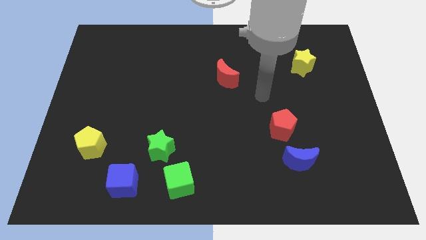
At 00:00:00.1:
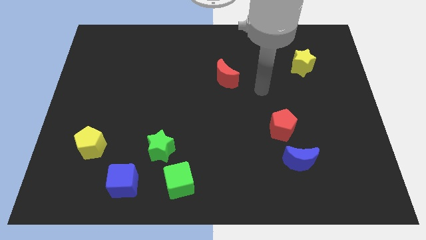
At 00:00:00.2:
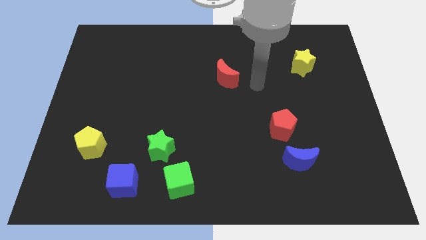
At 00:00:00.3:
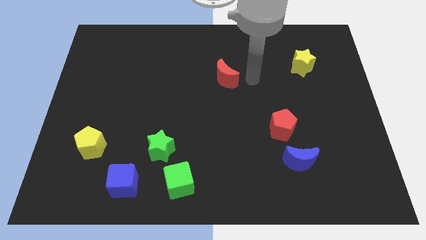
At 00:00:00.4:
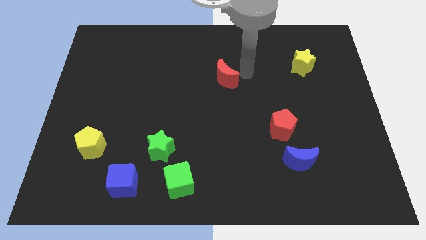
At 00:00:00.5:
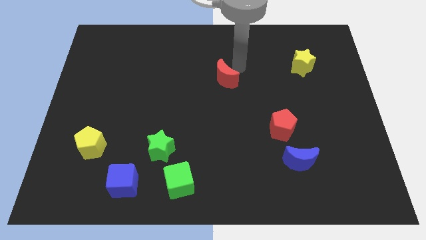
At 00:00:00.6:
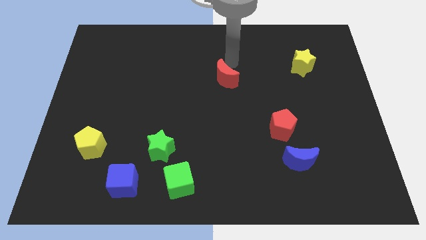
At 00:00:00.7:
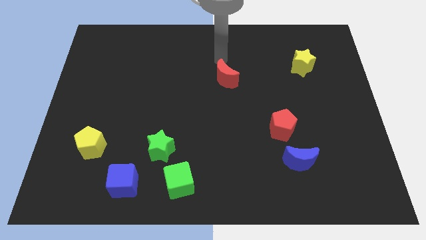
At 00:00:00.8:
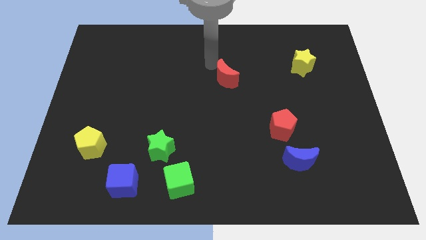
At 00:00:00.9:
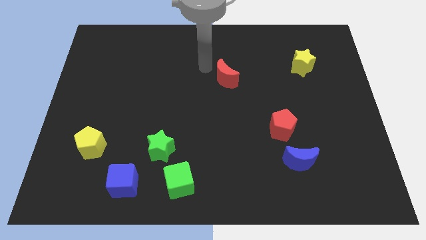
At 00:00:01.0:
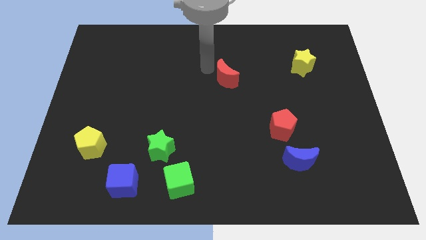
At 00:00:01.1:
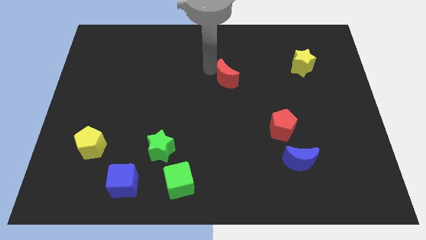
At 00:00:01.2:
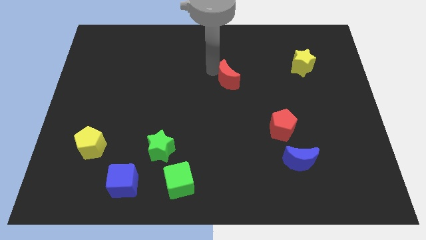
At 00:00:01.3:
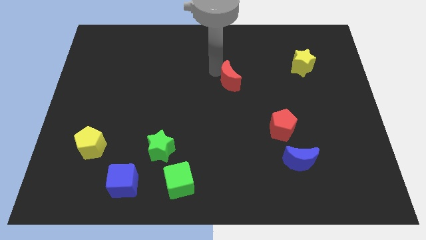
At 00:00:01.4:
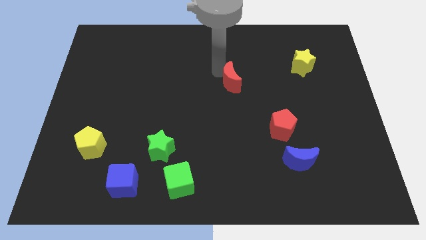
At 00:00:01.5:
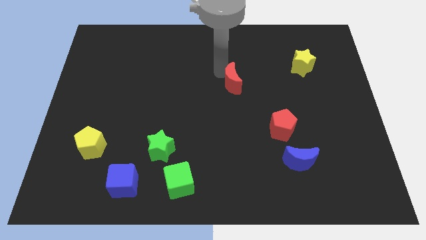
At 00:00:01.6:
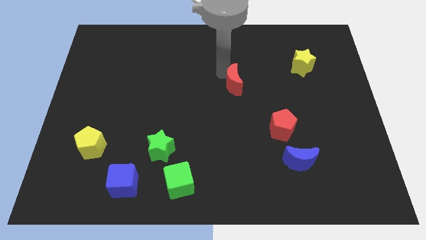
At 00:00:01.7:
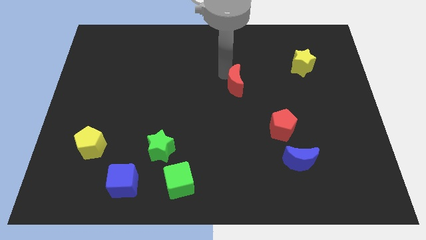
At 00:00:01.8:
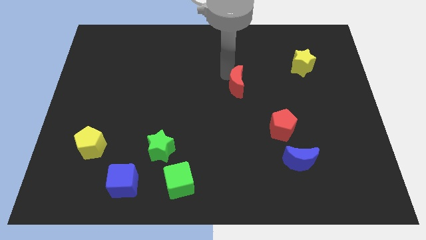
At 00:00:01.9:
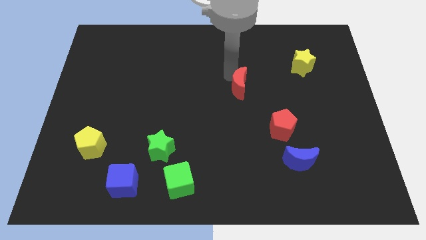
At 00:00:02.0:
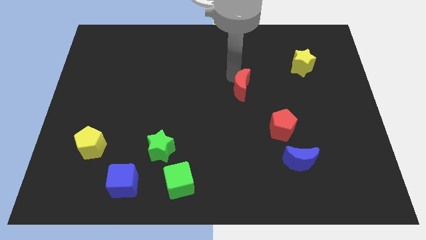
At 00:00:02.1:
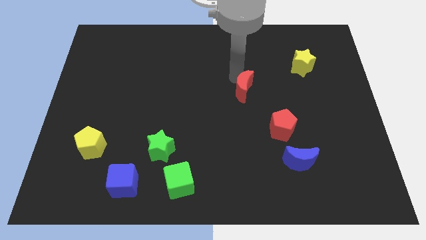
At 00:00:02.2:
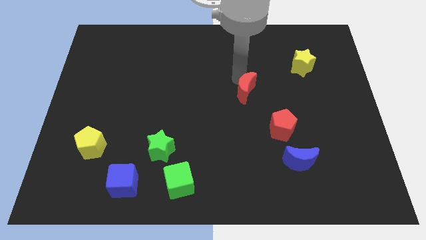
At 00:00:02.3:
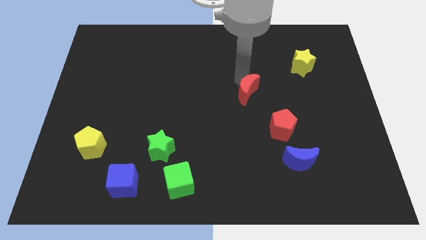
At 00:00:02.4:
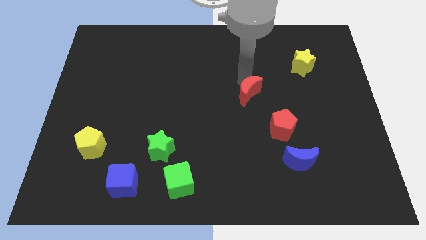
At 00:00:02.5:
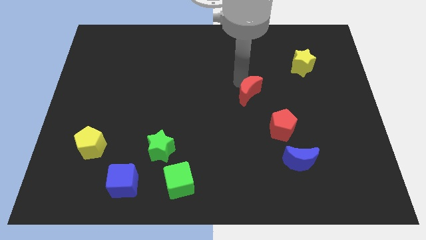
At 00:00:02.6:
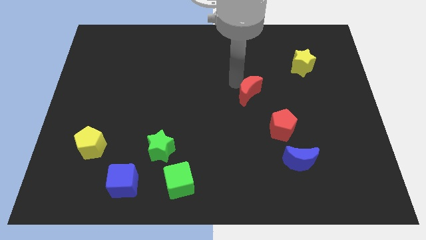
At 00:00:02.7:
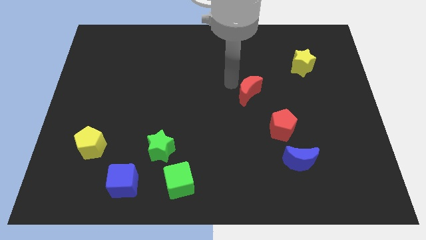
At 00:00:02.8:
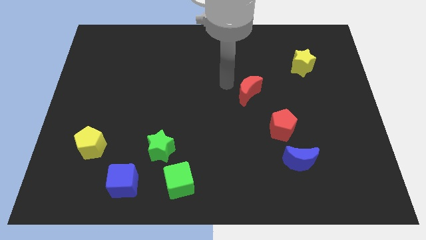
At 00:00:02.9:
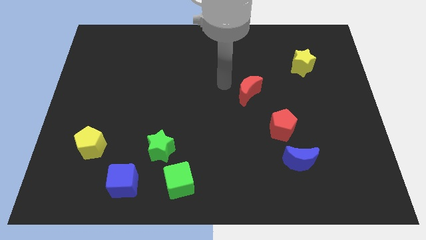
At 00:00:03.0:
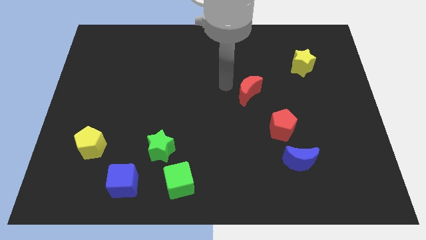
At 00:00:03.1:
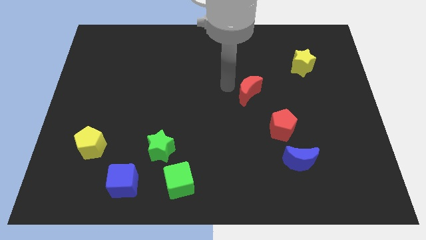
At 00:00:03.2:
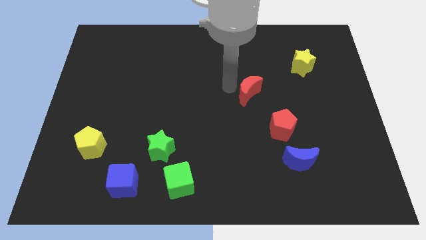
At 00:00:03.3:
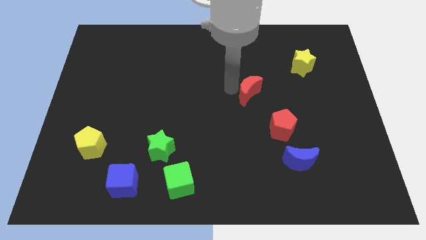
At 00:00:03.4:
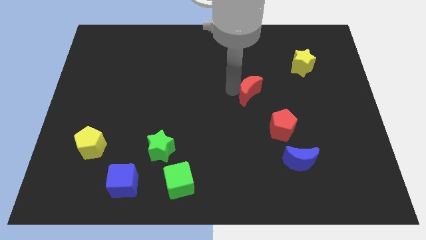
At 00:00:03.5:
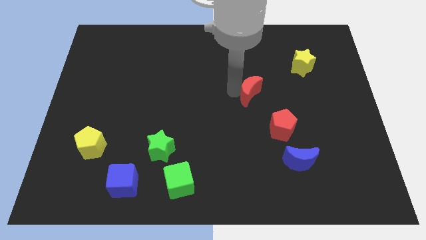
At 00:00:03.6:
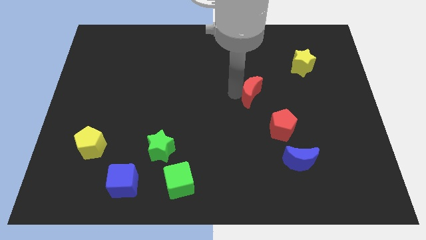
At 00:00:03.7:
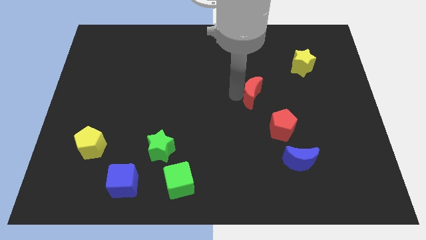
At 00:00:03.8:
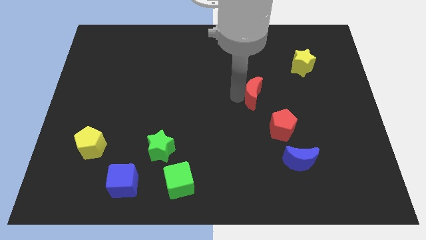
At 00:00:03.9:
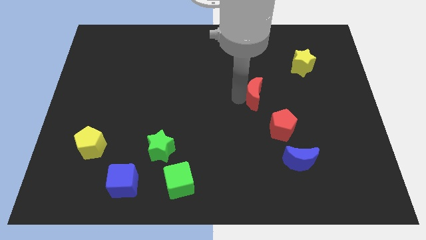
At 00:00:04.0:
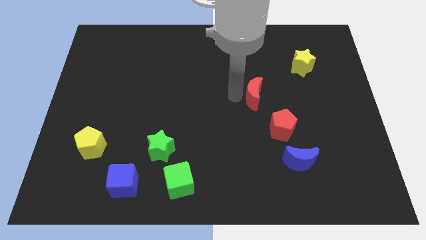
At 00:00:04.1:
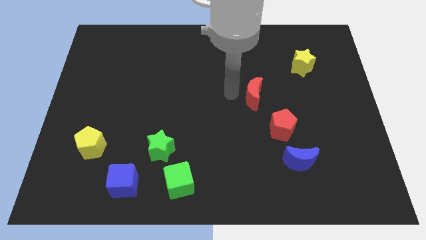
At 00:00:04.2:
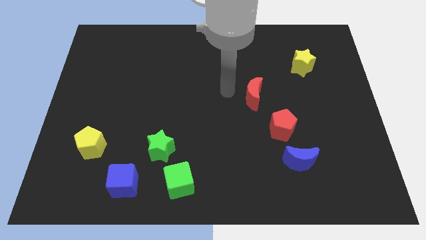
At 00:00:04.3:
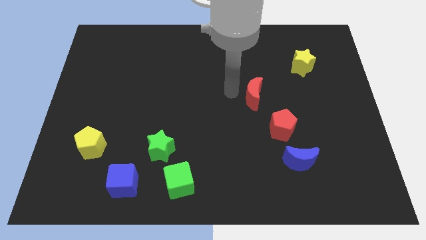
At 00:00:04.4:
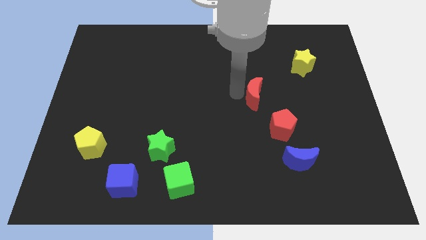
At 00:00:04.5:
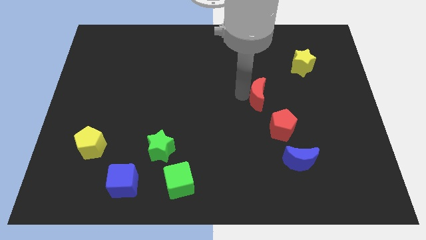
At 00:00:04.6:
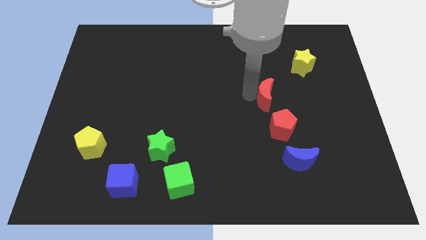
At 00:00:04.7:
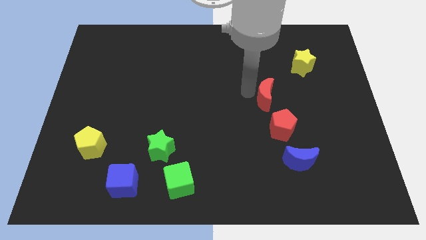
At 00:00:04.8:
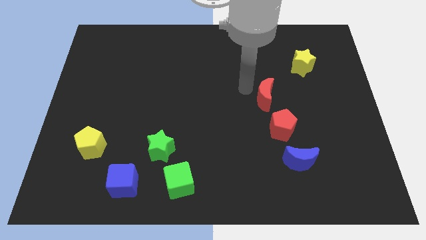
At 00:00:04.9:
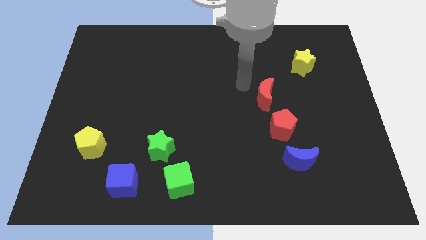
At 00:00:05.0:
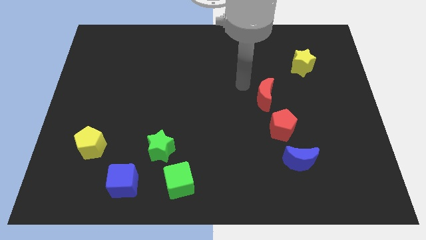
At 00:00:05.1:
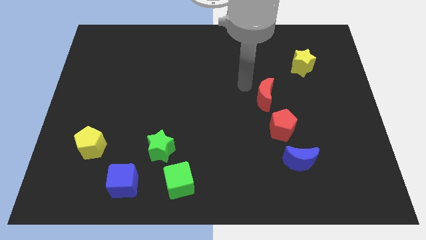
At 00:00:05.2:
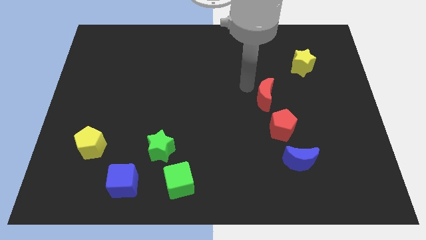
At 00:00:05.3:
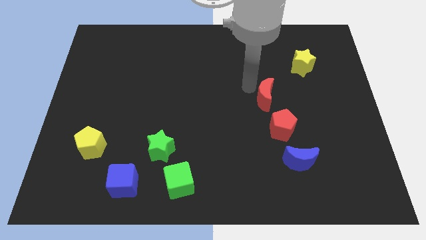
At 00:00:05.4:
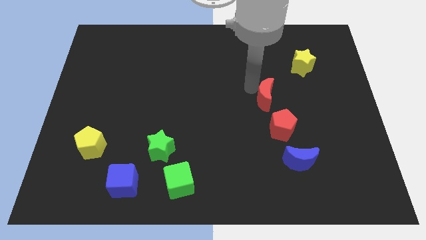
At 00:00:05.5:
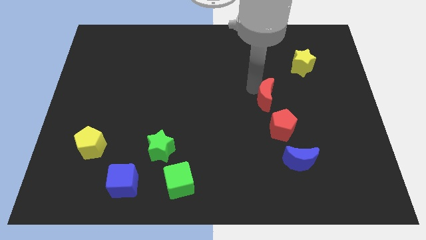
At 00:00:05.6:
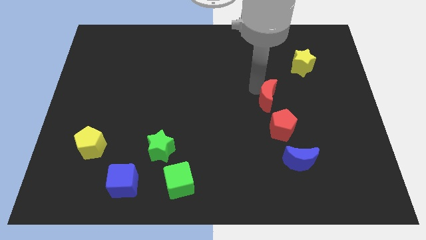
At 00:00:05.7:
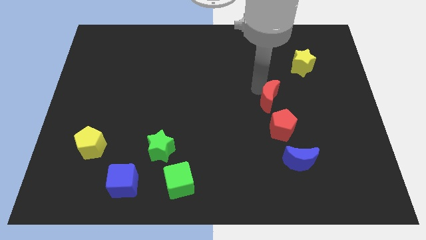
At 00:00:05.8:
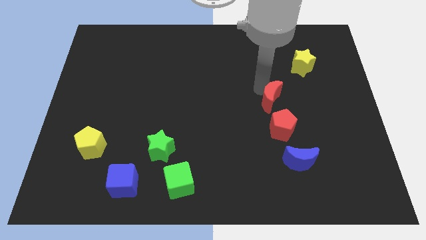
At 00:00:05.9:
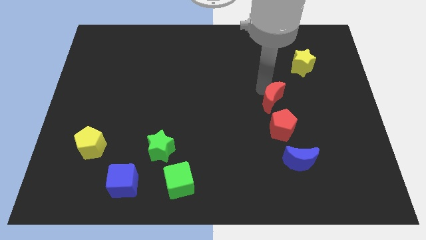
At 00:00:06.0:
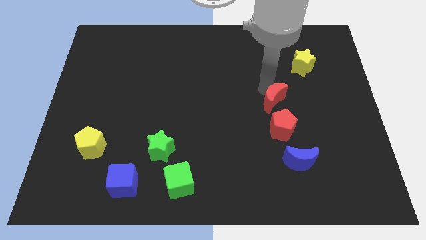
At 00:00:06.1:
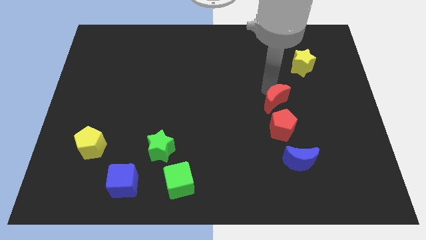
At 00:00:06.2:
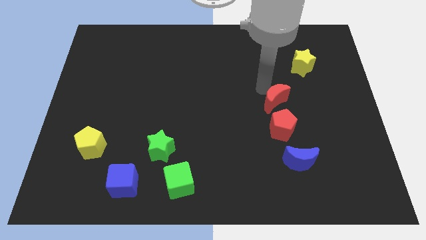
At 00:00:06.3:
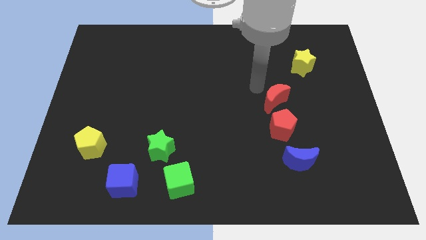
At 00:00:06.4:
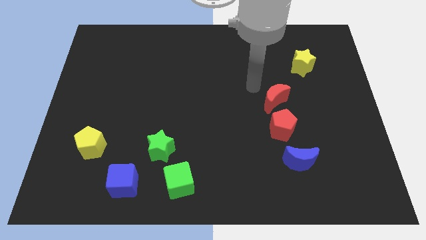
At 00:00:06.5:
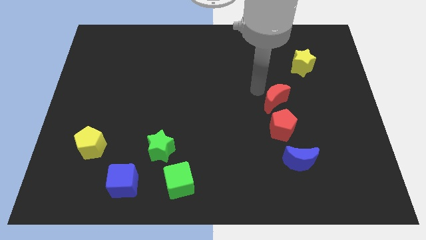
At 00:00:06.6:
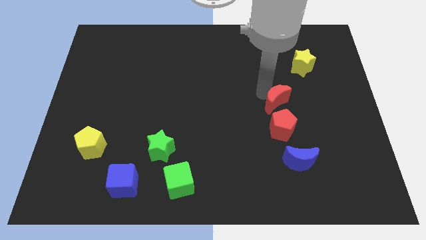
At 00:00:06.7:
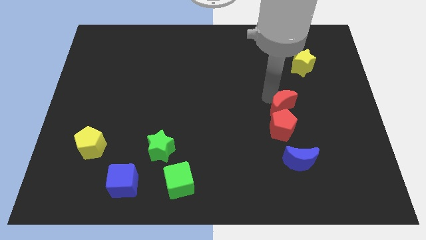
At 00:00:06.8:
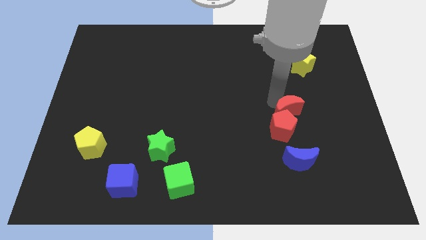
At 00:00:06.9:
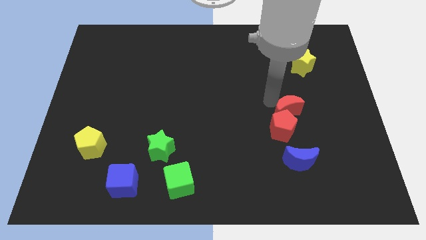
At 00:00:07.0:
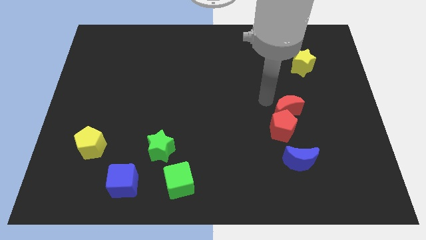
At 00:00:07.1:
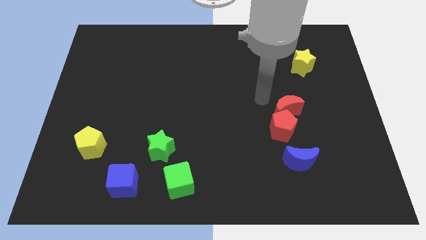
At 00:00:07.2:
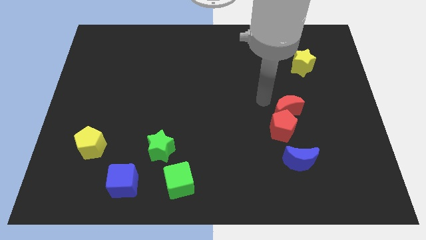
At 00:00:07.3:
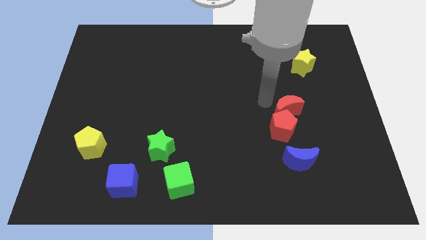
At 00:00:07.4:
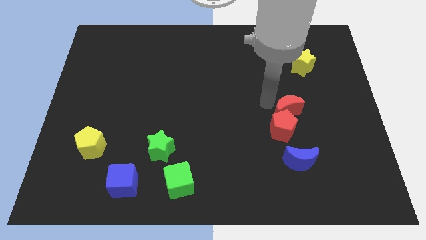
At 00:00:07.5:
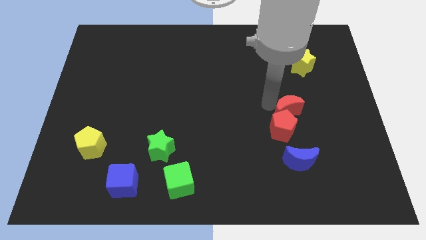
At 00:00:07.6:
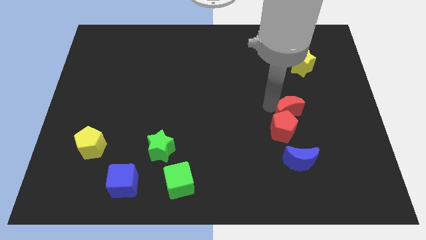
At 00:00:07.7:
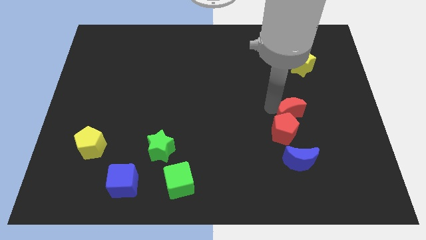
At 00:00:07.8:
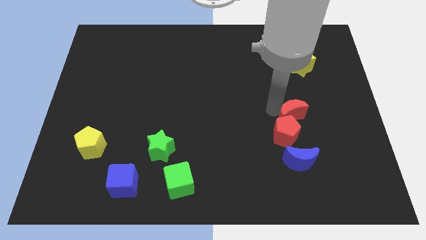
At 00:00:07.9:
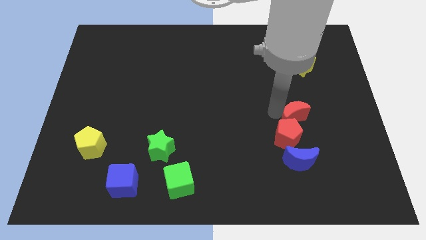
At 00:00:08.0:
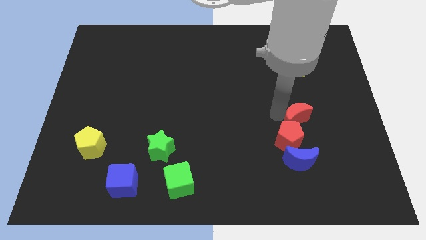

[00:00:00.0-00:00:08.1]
push the red moon downwards and then right
